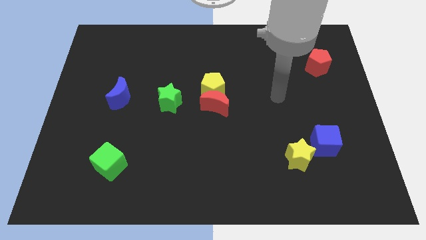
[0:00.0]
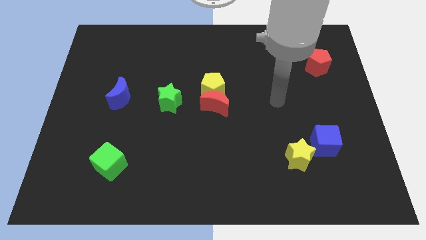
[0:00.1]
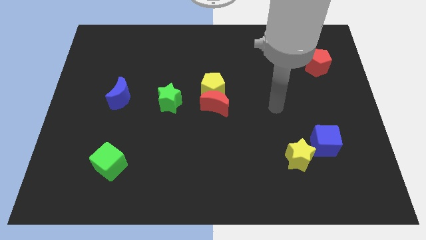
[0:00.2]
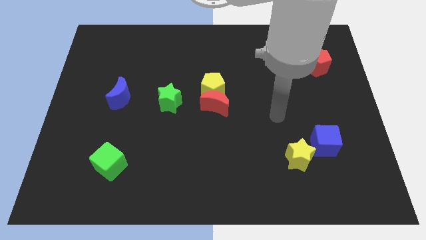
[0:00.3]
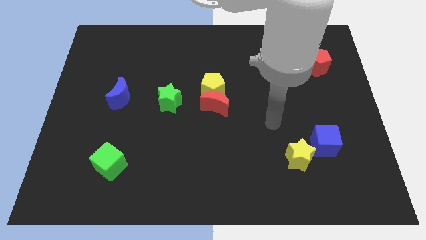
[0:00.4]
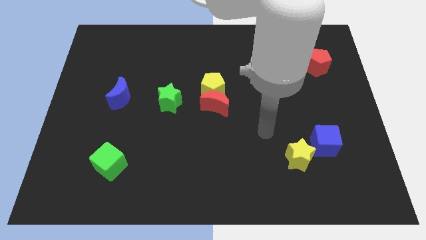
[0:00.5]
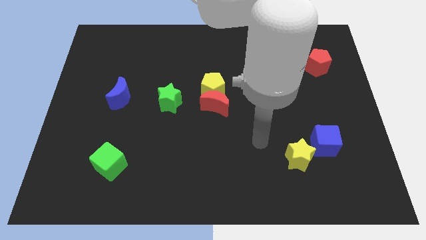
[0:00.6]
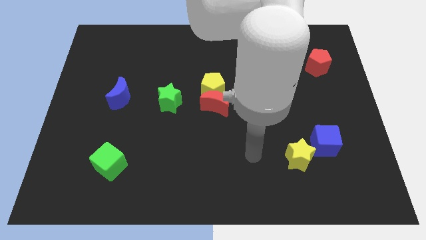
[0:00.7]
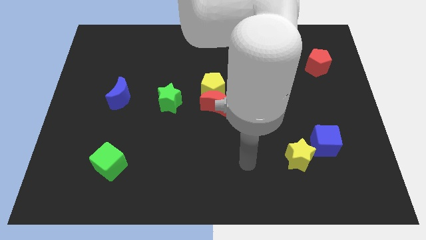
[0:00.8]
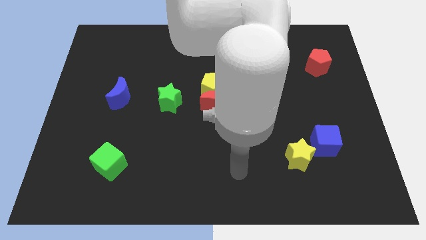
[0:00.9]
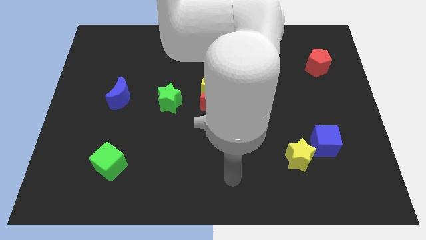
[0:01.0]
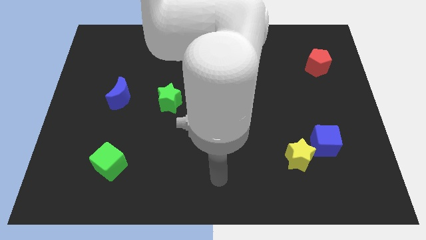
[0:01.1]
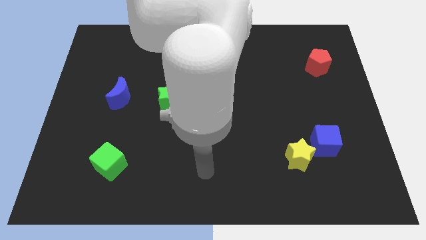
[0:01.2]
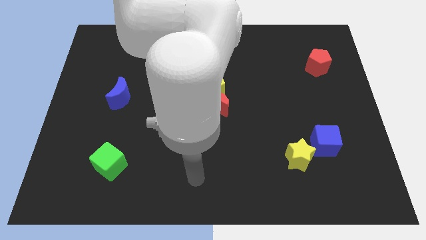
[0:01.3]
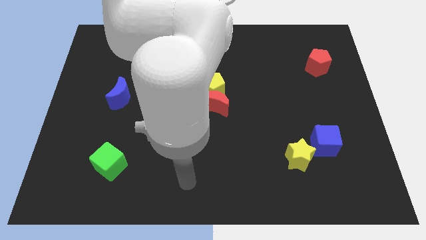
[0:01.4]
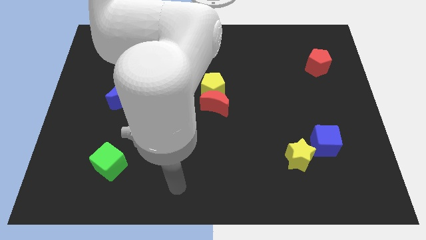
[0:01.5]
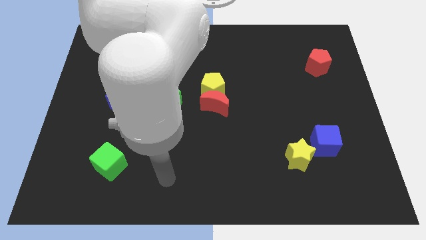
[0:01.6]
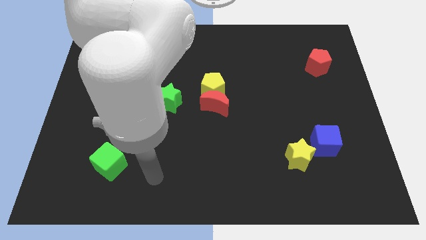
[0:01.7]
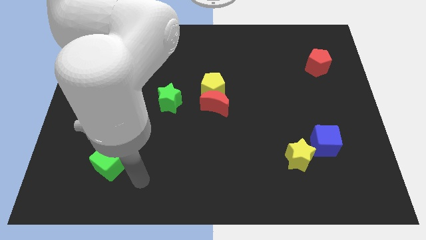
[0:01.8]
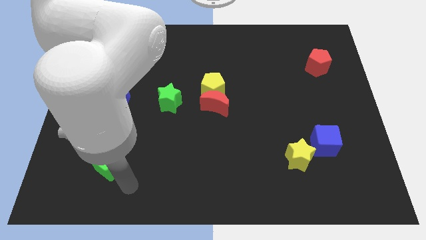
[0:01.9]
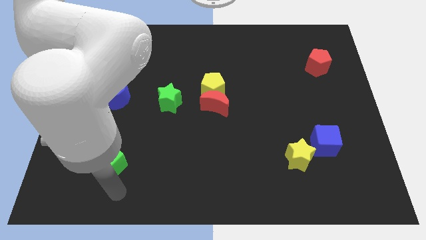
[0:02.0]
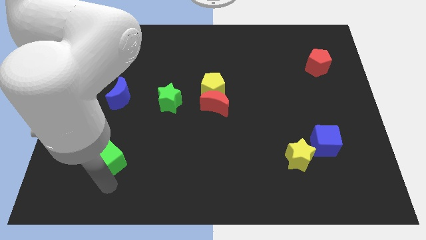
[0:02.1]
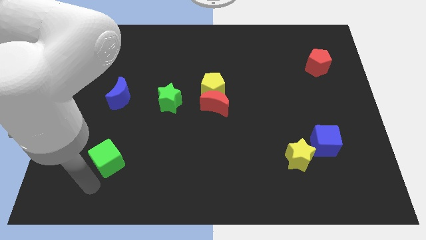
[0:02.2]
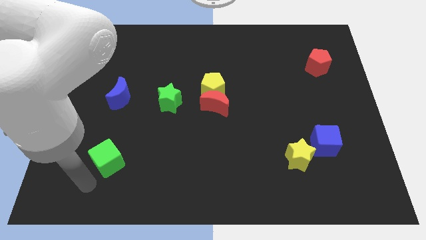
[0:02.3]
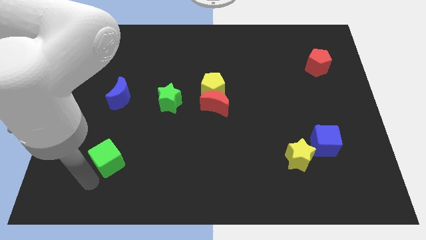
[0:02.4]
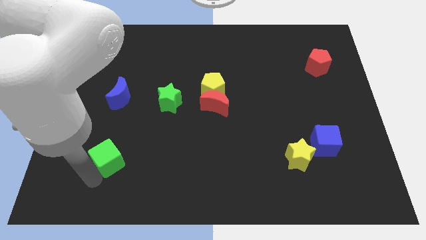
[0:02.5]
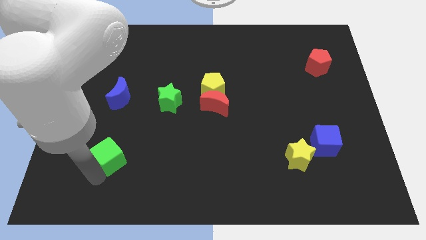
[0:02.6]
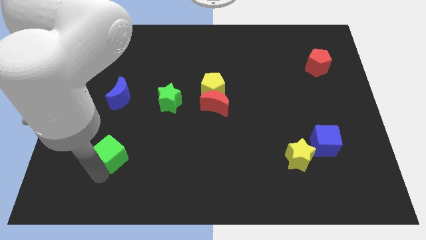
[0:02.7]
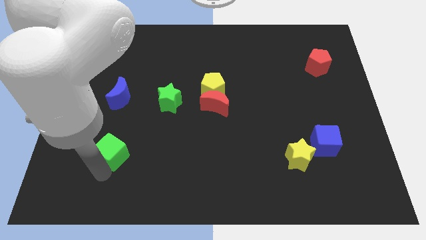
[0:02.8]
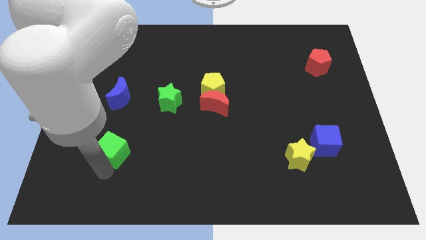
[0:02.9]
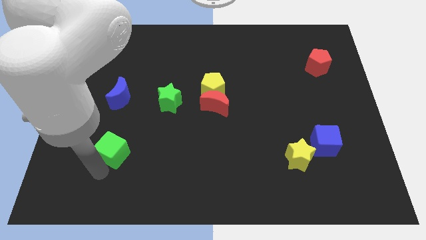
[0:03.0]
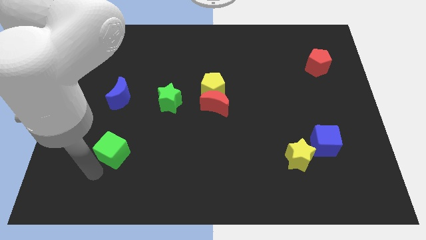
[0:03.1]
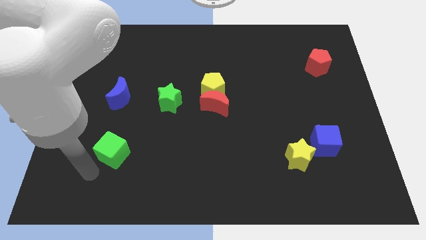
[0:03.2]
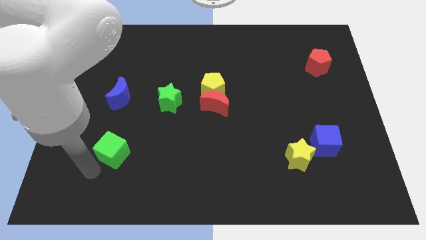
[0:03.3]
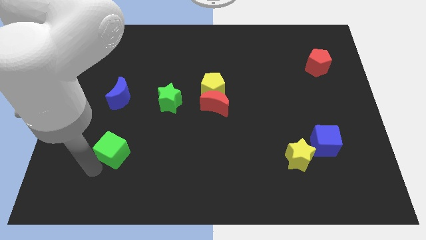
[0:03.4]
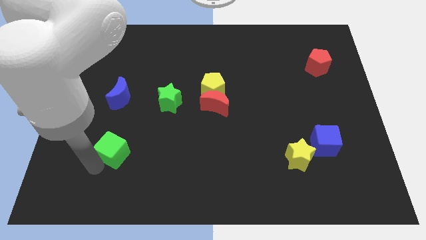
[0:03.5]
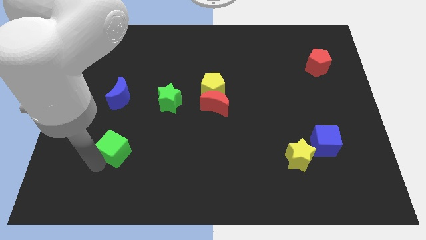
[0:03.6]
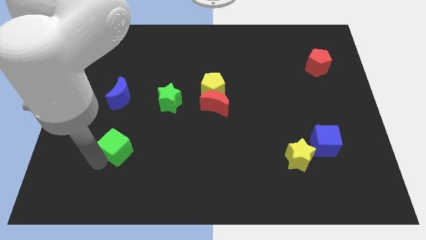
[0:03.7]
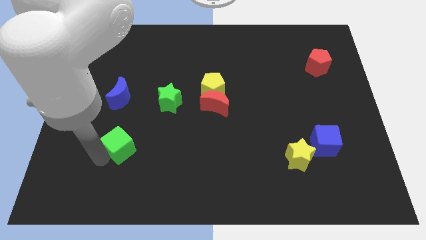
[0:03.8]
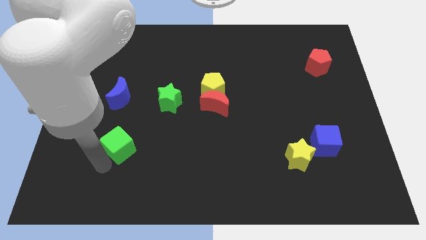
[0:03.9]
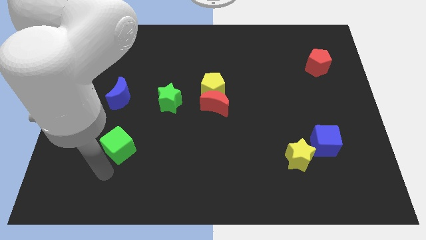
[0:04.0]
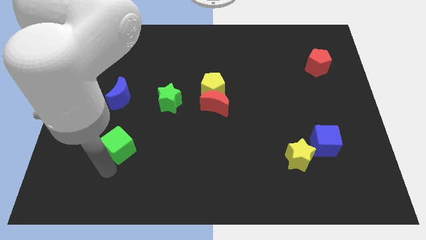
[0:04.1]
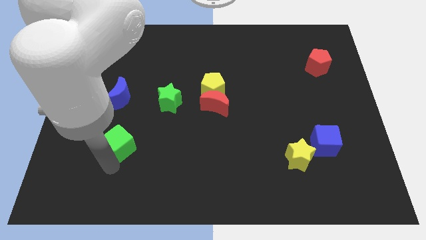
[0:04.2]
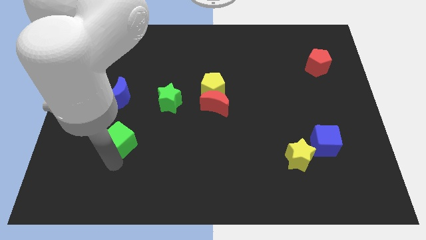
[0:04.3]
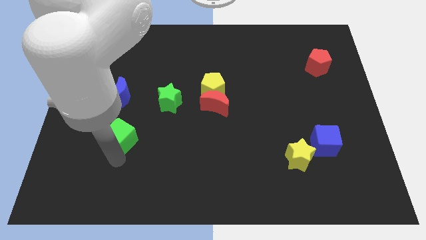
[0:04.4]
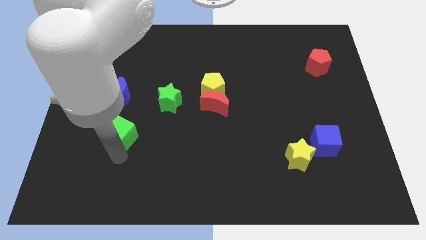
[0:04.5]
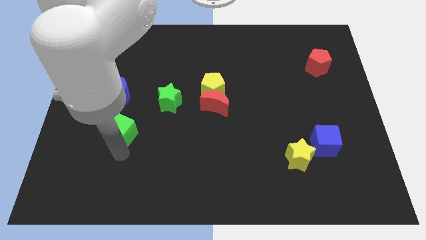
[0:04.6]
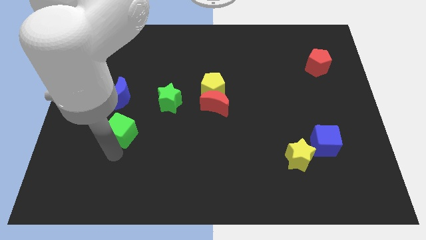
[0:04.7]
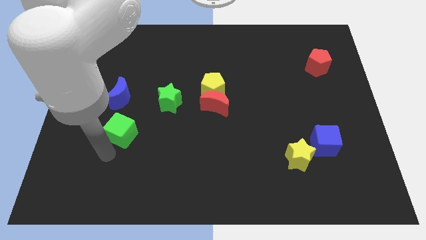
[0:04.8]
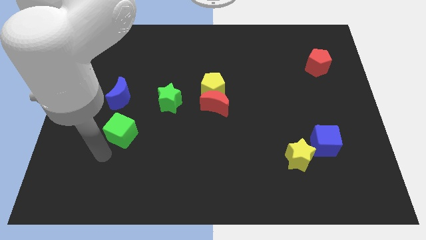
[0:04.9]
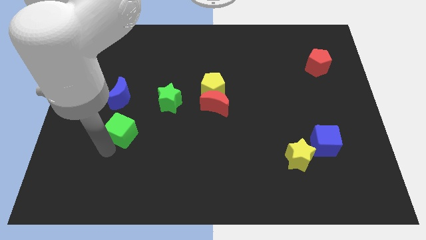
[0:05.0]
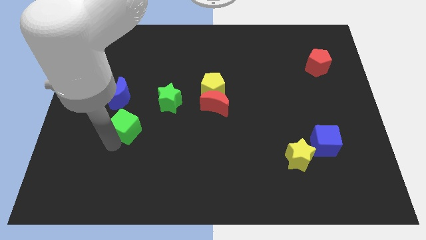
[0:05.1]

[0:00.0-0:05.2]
slide the green cube to the bottom right of the blue moon

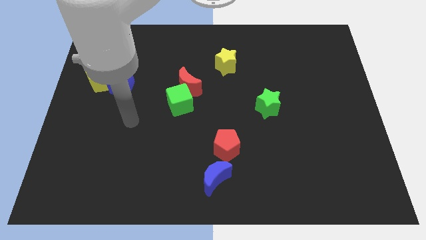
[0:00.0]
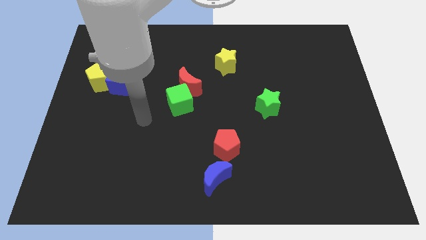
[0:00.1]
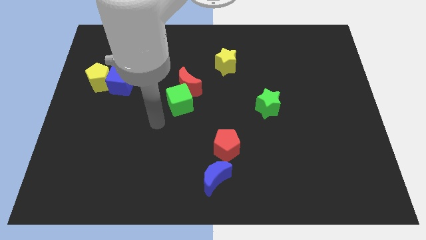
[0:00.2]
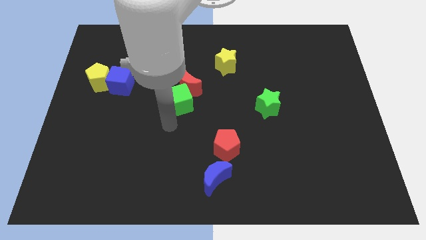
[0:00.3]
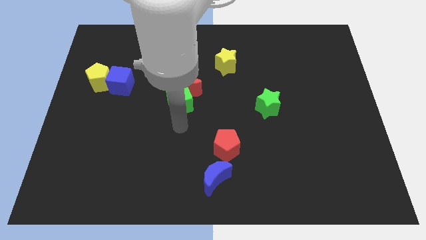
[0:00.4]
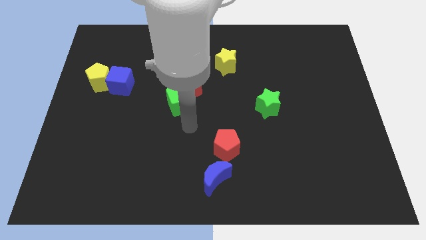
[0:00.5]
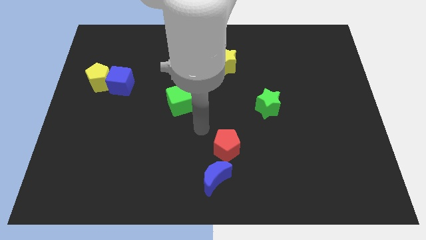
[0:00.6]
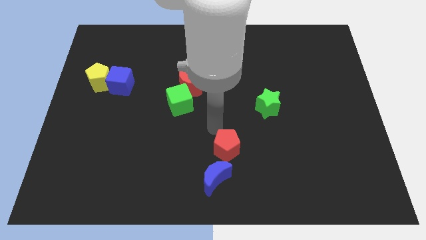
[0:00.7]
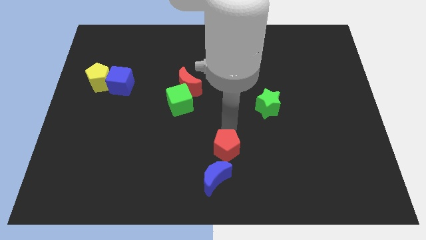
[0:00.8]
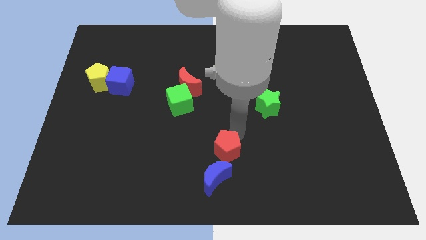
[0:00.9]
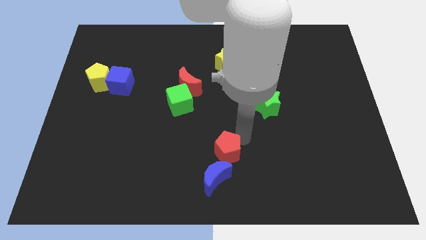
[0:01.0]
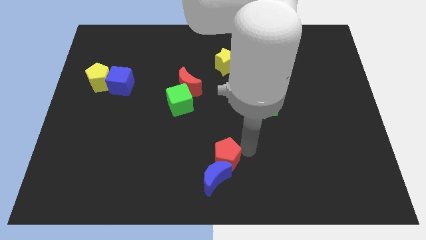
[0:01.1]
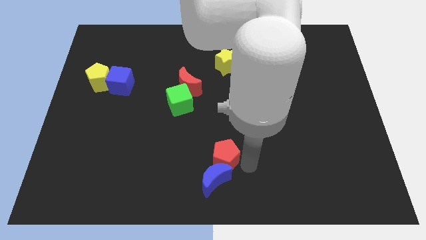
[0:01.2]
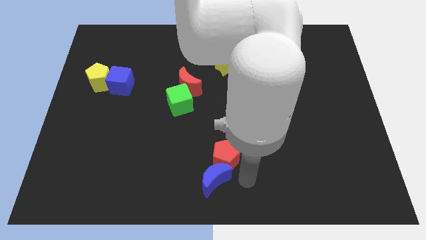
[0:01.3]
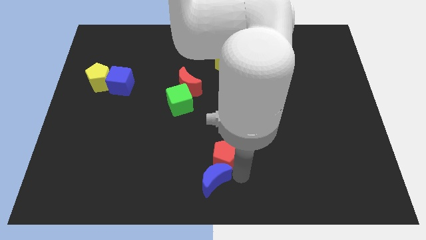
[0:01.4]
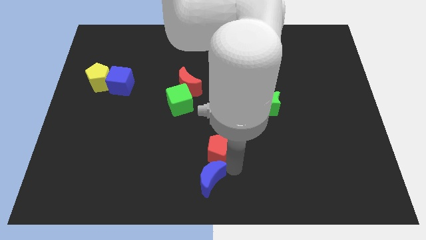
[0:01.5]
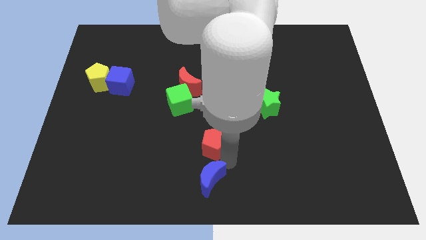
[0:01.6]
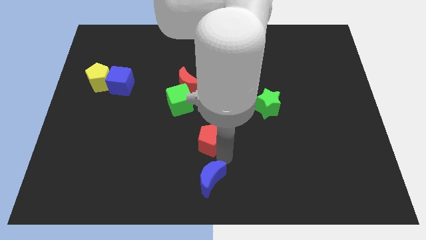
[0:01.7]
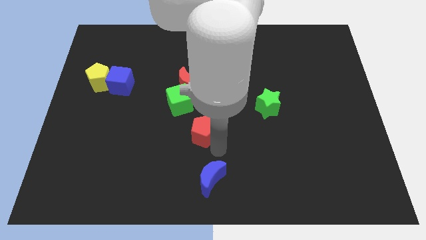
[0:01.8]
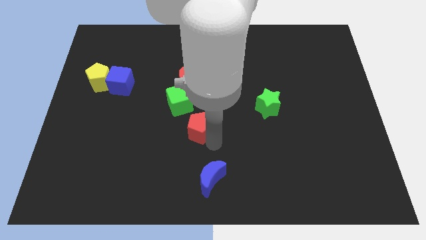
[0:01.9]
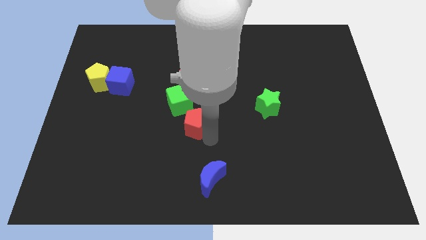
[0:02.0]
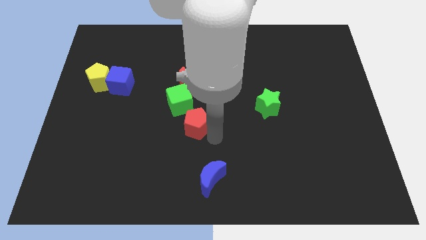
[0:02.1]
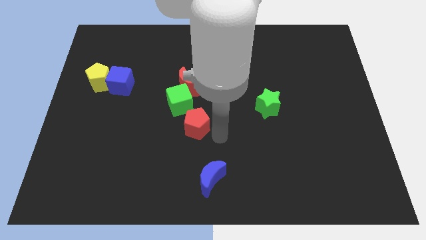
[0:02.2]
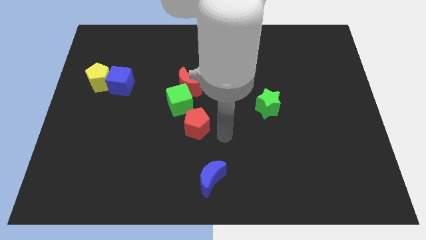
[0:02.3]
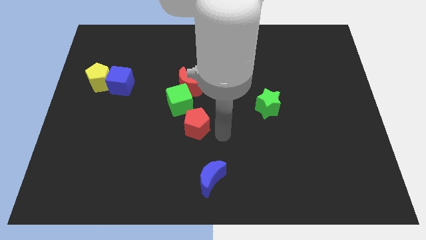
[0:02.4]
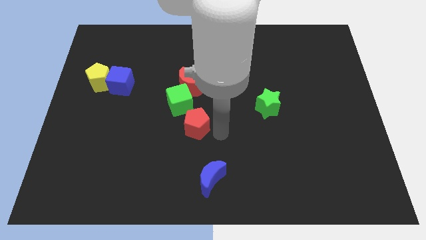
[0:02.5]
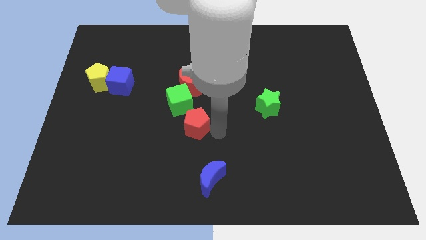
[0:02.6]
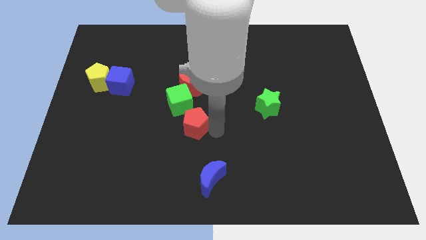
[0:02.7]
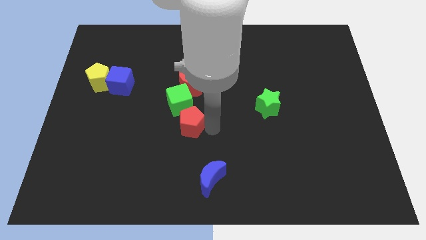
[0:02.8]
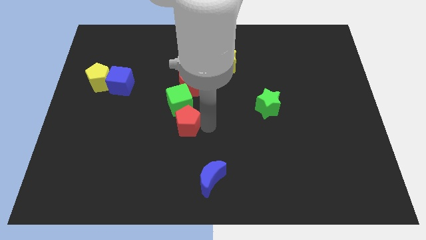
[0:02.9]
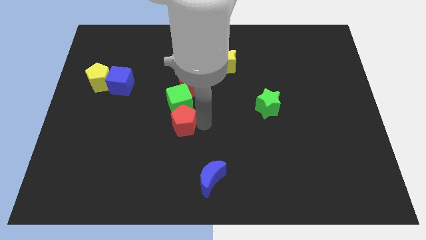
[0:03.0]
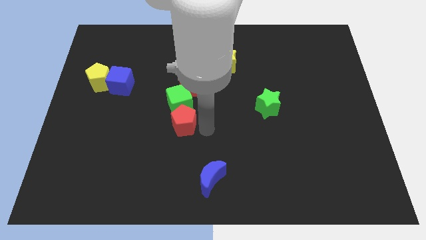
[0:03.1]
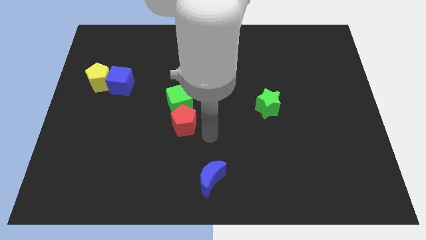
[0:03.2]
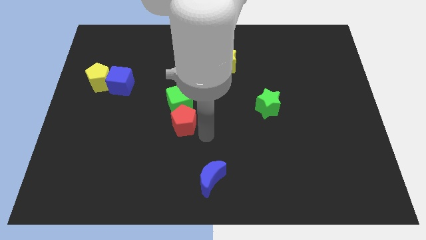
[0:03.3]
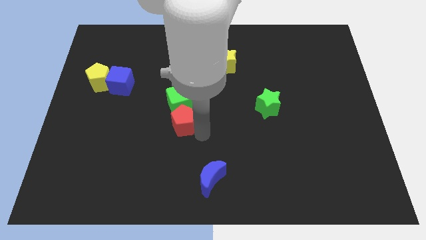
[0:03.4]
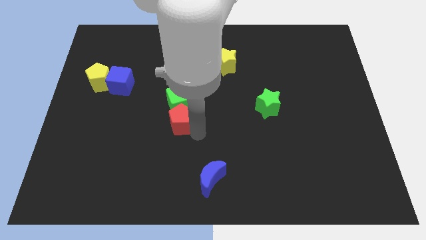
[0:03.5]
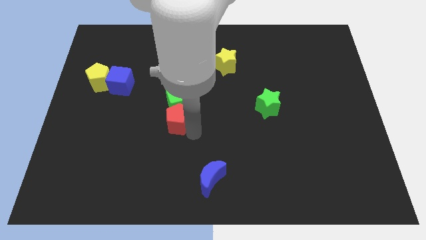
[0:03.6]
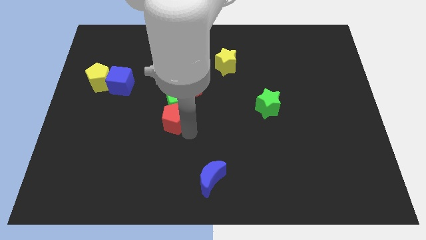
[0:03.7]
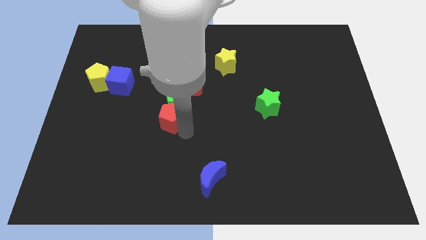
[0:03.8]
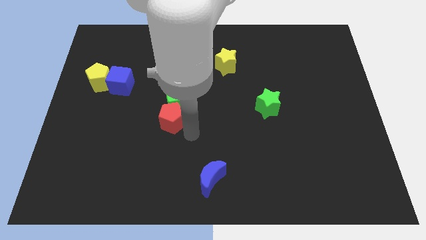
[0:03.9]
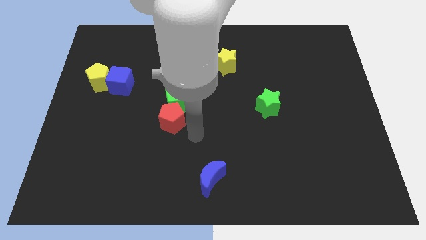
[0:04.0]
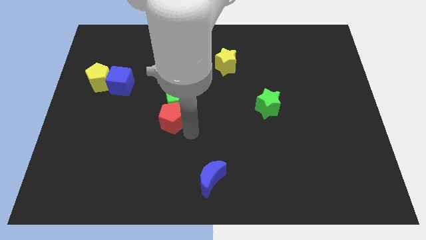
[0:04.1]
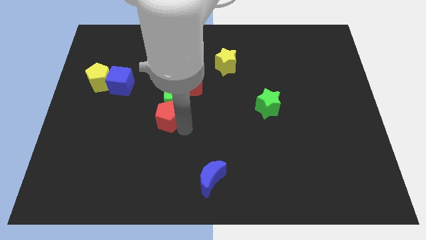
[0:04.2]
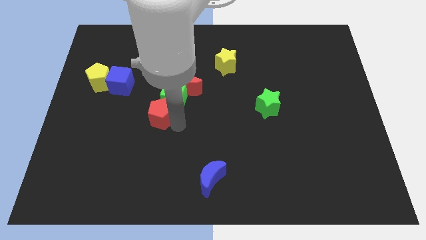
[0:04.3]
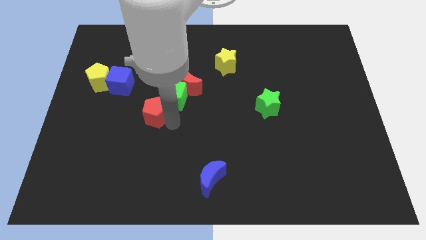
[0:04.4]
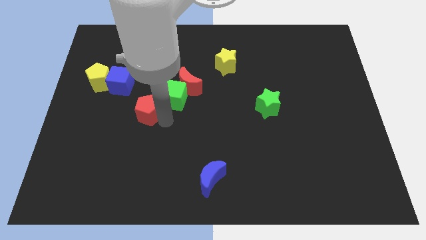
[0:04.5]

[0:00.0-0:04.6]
slide the red pentagon to the bottom right side of the blue cube
